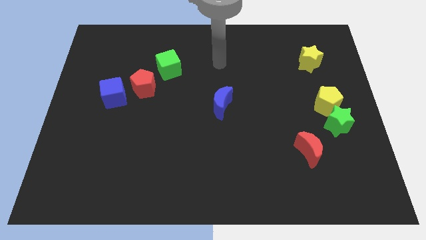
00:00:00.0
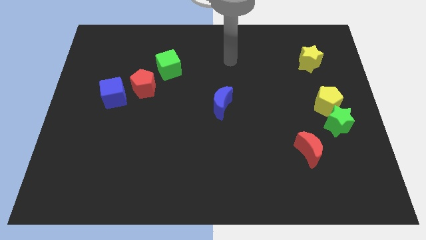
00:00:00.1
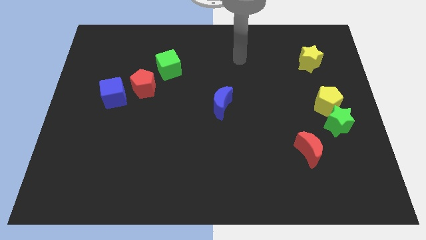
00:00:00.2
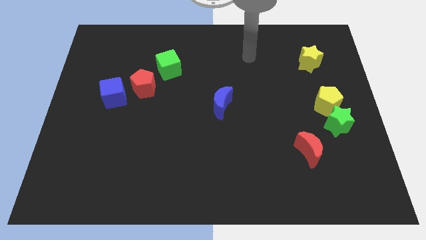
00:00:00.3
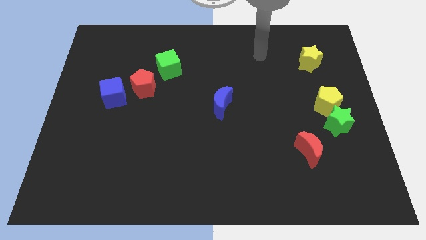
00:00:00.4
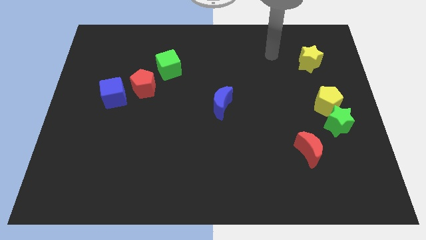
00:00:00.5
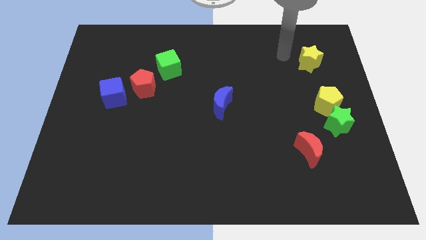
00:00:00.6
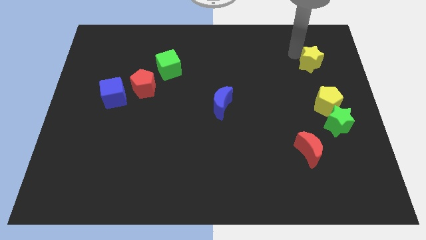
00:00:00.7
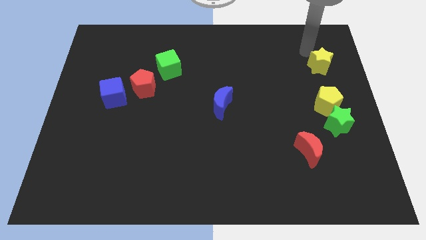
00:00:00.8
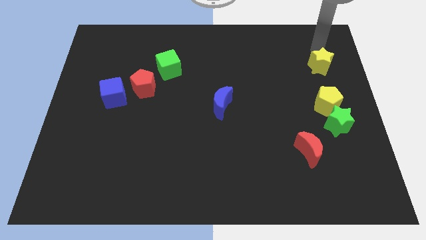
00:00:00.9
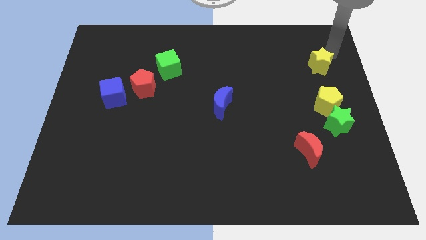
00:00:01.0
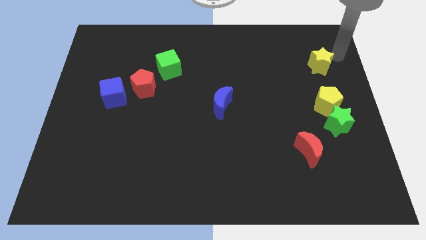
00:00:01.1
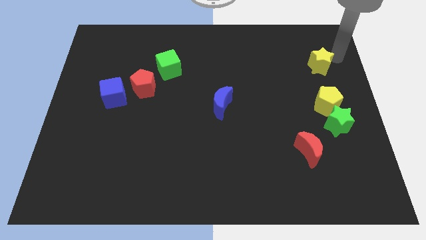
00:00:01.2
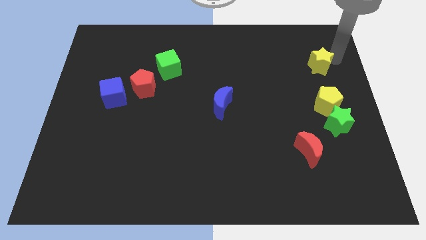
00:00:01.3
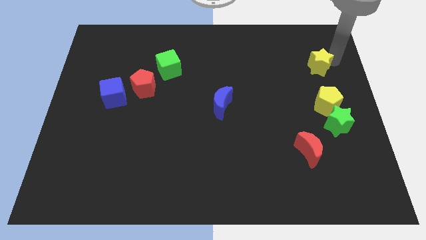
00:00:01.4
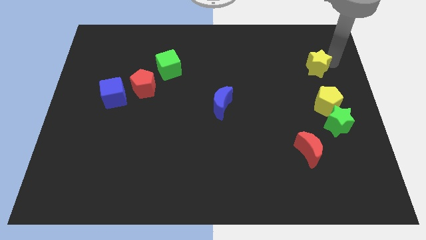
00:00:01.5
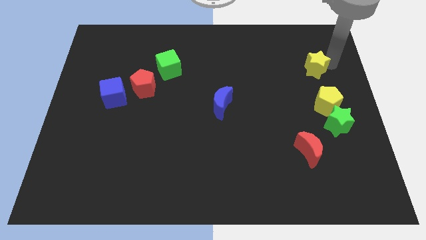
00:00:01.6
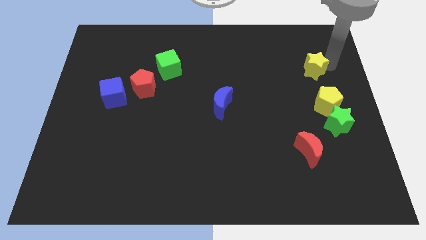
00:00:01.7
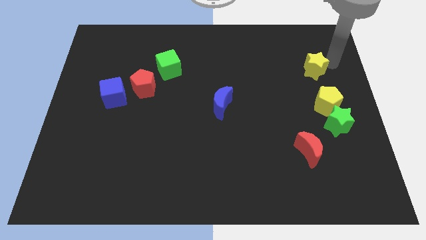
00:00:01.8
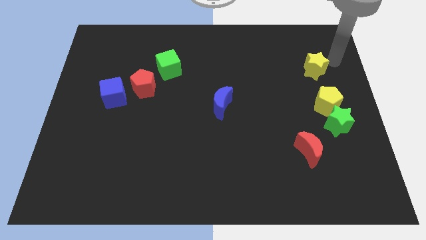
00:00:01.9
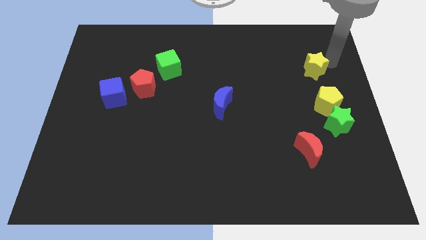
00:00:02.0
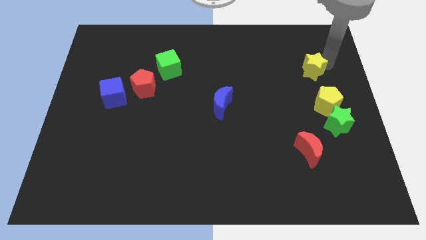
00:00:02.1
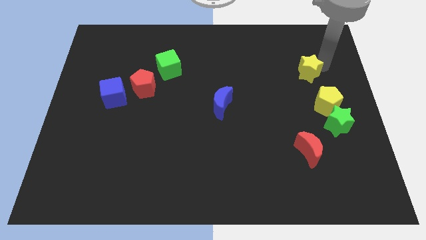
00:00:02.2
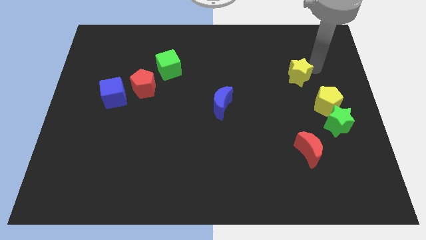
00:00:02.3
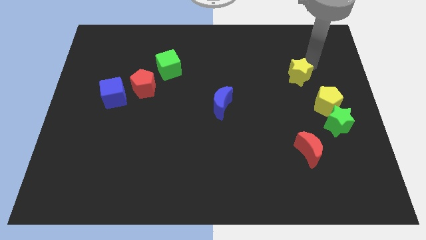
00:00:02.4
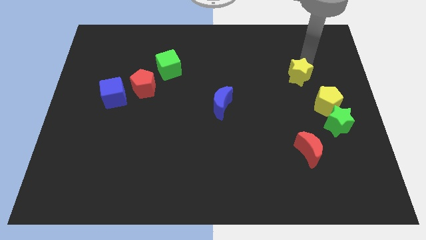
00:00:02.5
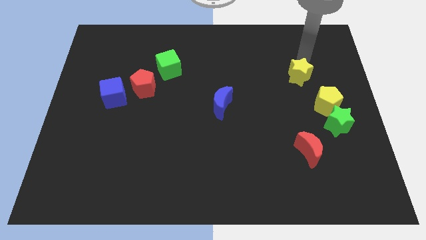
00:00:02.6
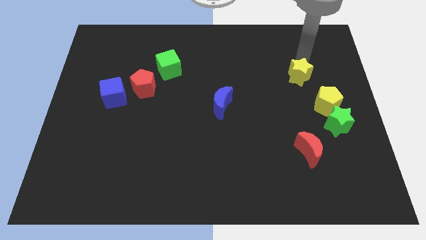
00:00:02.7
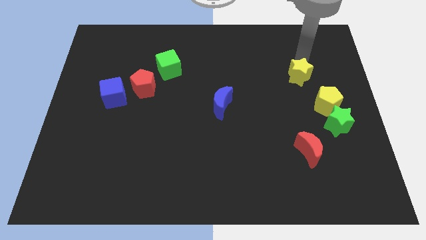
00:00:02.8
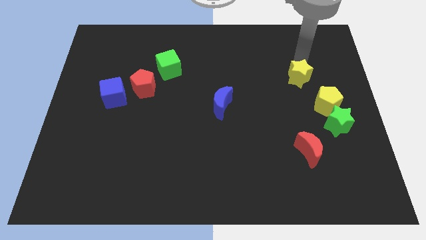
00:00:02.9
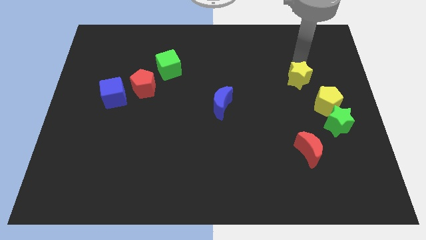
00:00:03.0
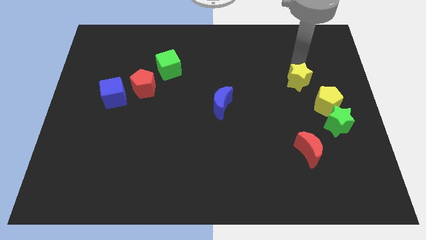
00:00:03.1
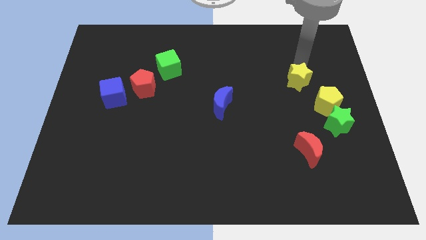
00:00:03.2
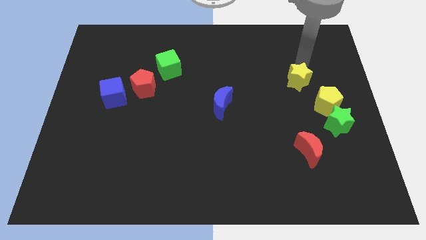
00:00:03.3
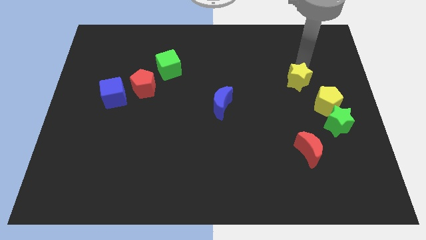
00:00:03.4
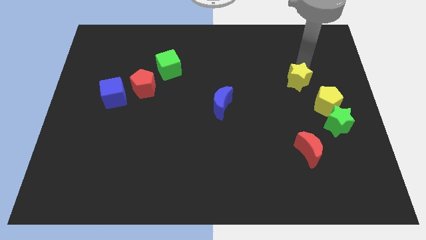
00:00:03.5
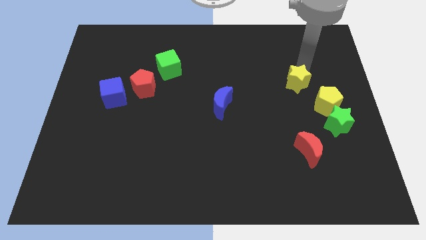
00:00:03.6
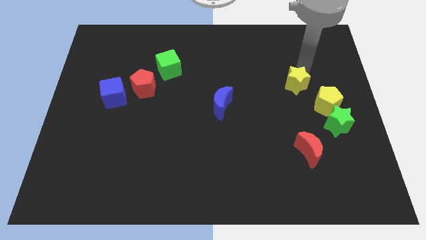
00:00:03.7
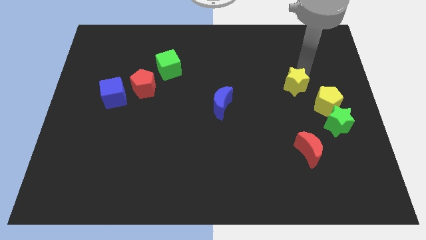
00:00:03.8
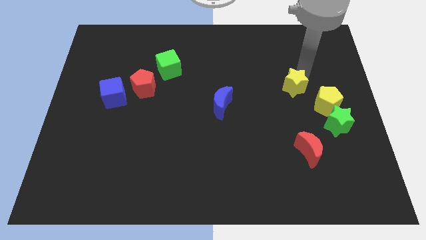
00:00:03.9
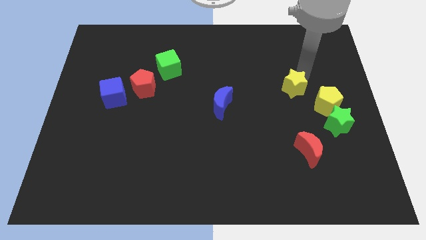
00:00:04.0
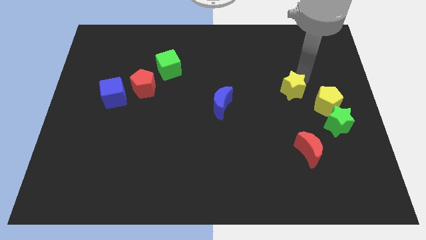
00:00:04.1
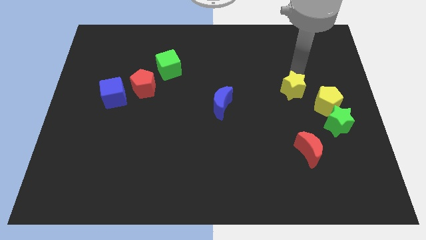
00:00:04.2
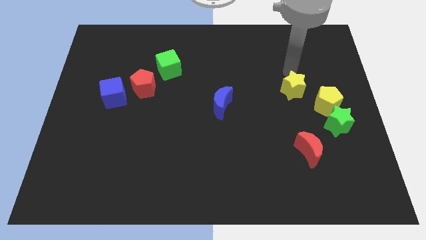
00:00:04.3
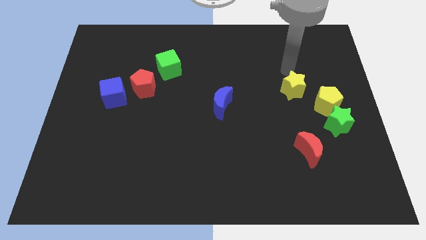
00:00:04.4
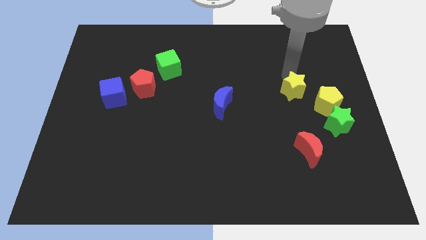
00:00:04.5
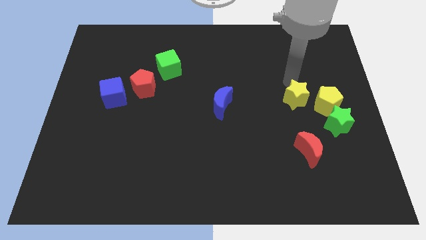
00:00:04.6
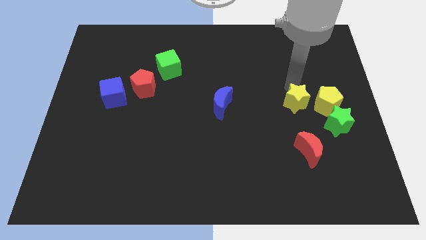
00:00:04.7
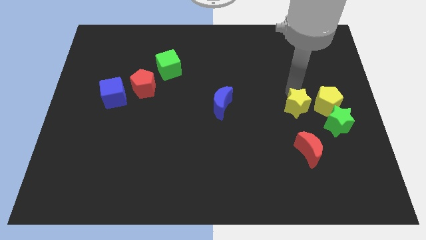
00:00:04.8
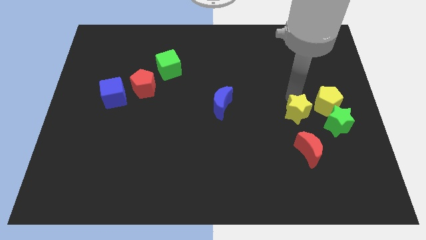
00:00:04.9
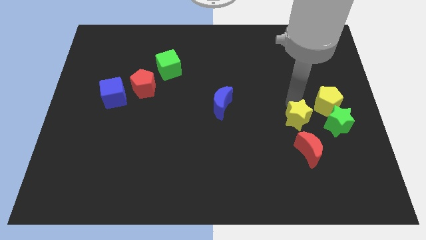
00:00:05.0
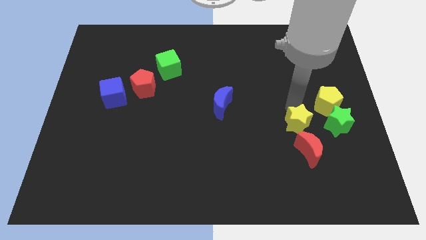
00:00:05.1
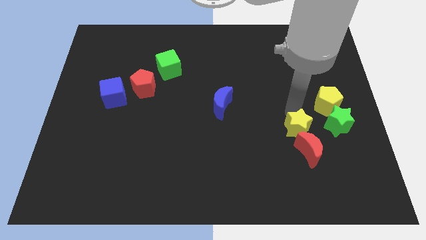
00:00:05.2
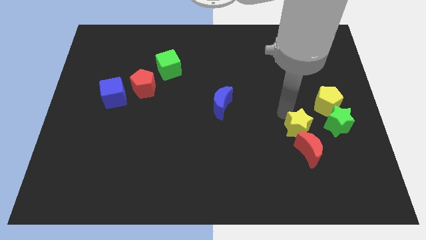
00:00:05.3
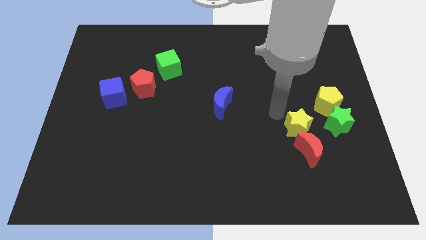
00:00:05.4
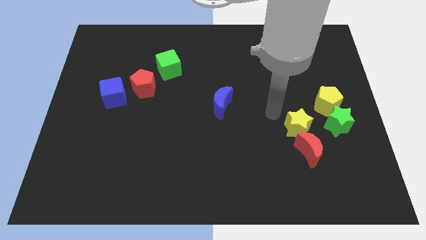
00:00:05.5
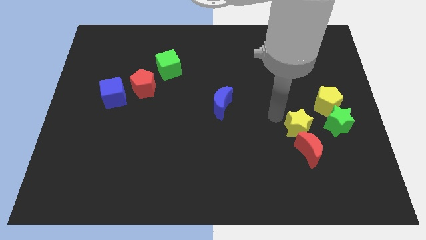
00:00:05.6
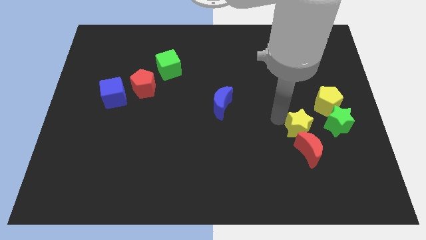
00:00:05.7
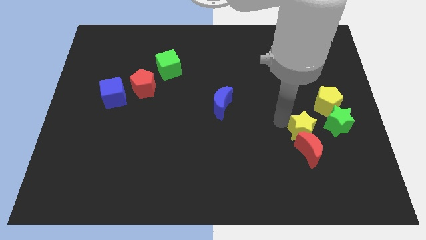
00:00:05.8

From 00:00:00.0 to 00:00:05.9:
move the yellow star downwards

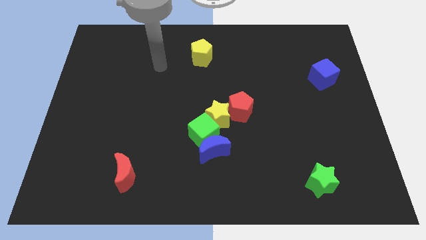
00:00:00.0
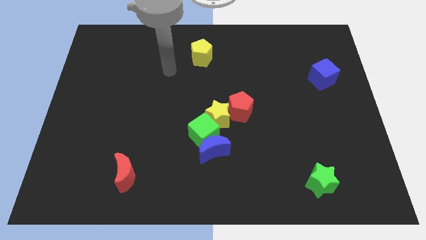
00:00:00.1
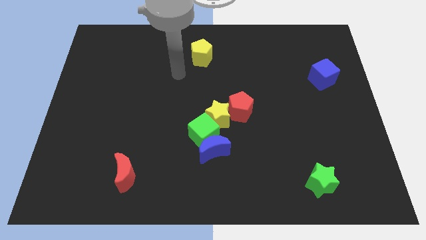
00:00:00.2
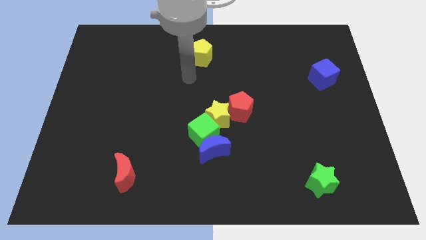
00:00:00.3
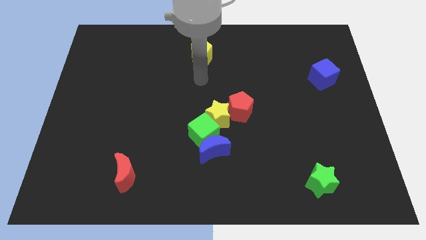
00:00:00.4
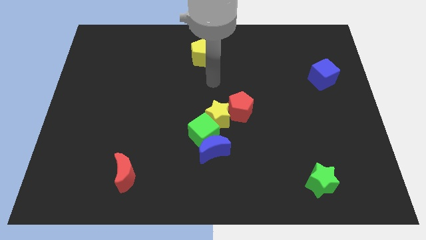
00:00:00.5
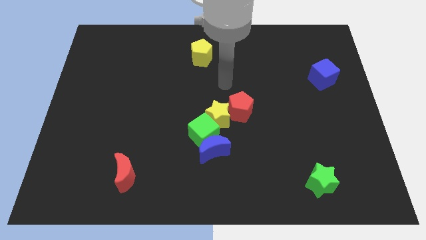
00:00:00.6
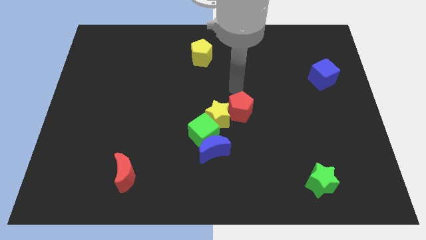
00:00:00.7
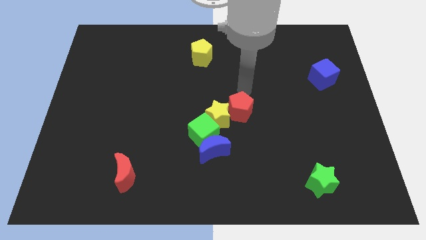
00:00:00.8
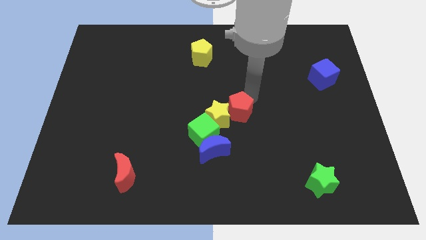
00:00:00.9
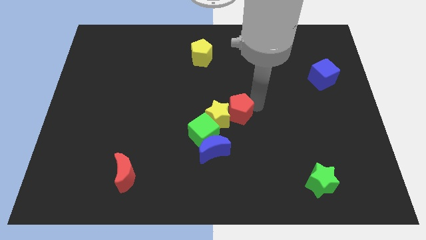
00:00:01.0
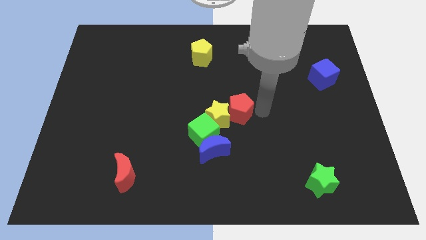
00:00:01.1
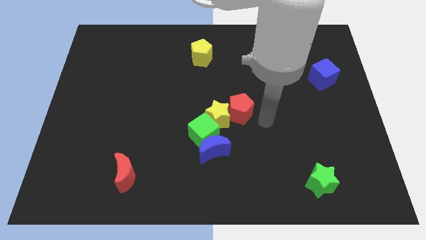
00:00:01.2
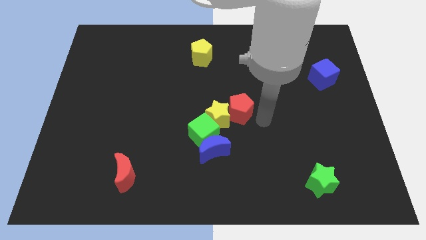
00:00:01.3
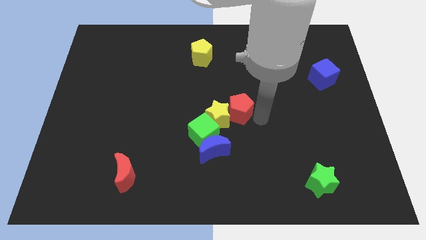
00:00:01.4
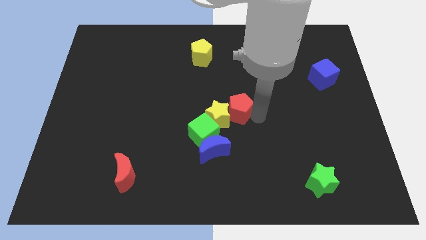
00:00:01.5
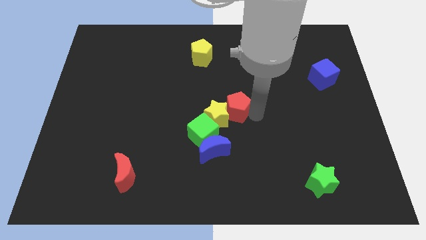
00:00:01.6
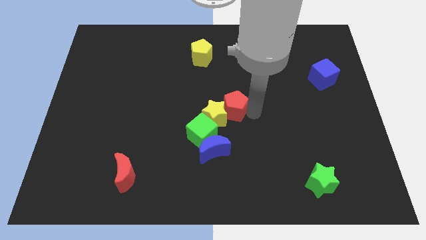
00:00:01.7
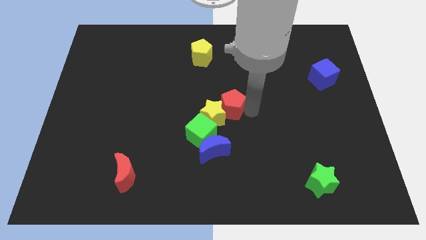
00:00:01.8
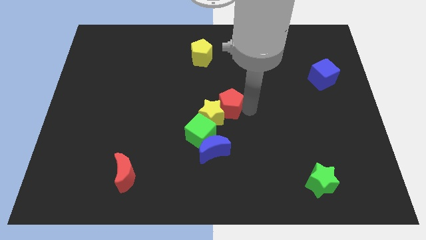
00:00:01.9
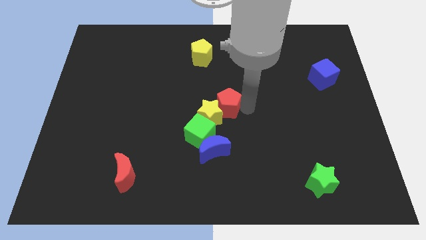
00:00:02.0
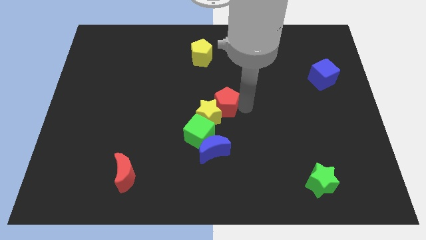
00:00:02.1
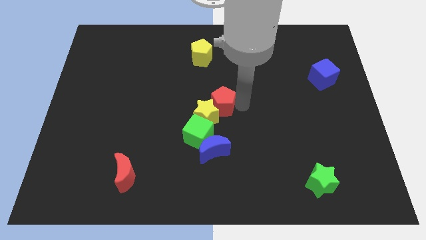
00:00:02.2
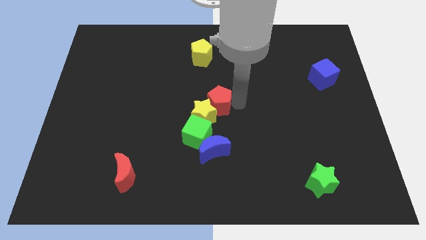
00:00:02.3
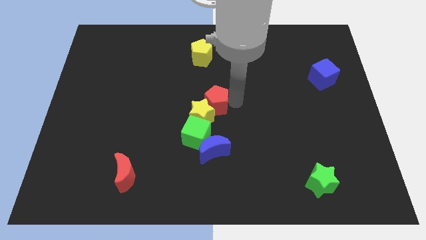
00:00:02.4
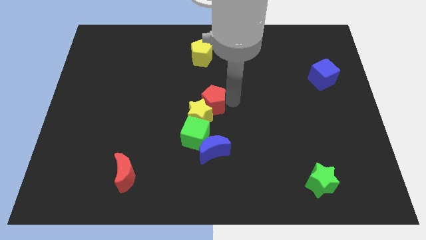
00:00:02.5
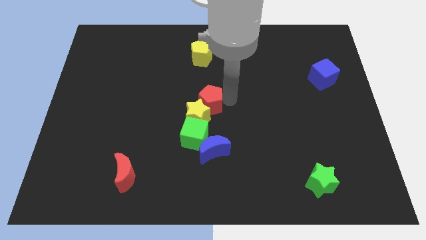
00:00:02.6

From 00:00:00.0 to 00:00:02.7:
slightly move the red pentagon to the left
